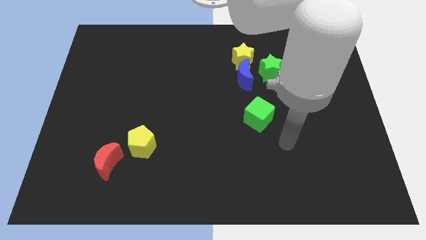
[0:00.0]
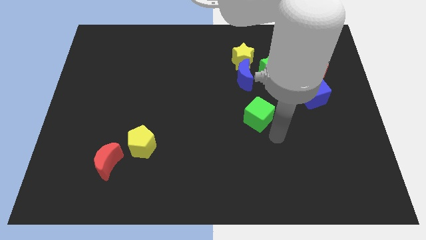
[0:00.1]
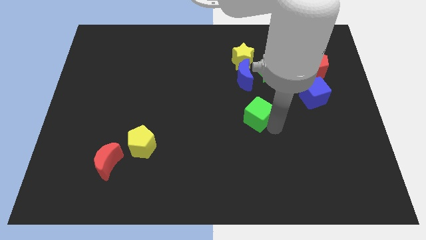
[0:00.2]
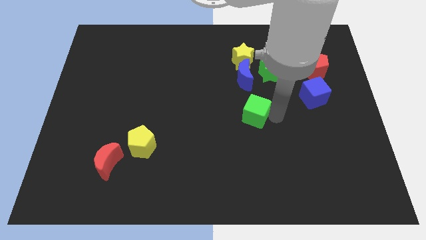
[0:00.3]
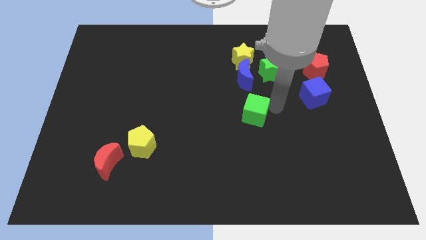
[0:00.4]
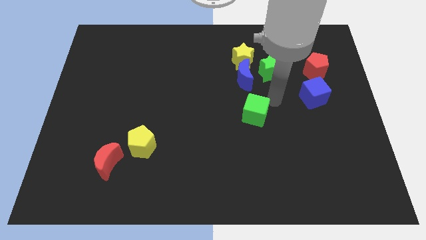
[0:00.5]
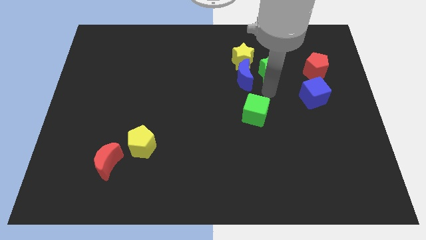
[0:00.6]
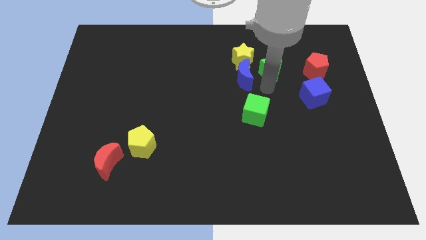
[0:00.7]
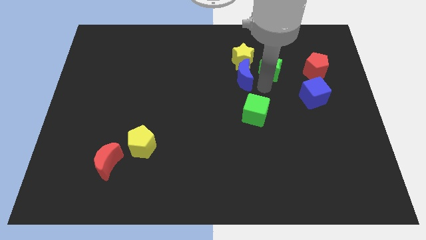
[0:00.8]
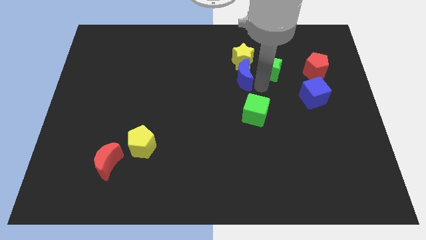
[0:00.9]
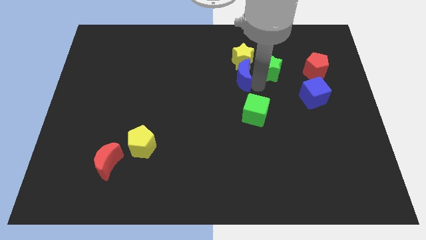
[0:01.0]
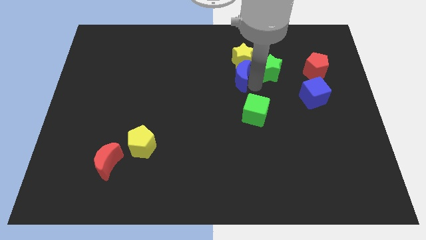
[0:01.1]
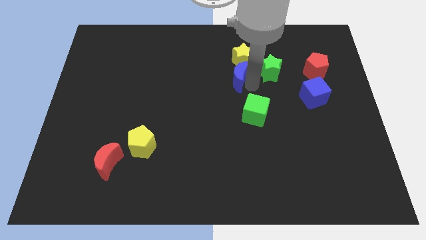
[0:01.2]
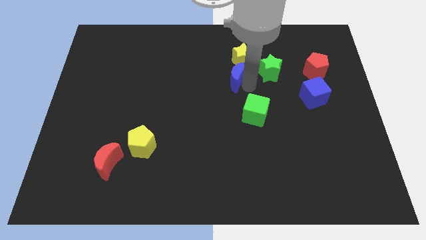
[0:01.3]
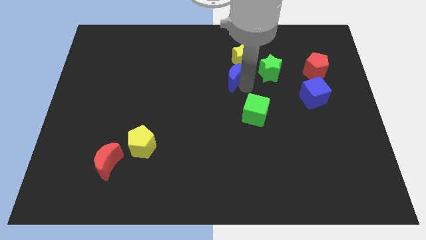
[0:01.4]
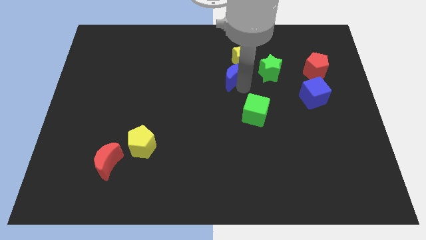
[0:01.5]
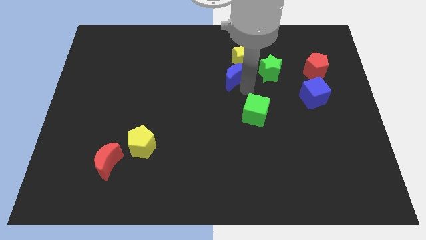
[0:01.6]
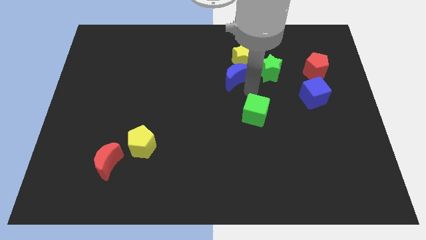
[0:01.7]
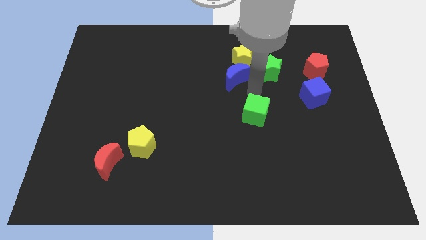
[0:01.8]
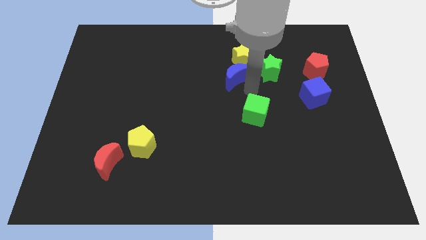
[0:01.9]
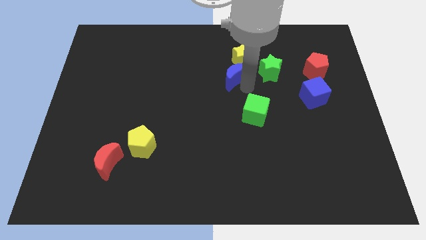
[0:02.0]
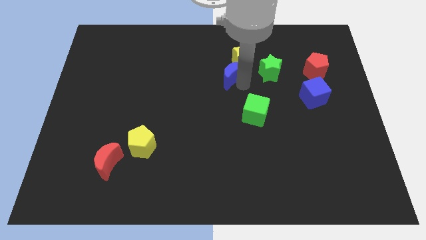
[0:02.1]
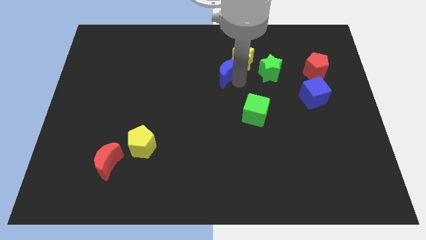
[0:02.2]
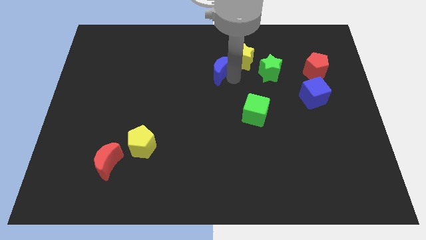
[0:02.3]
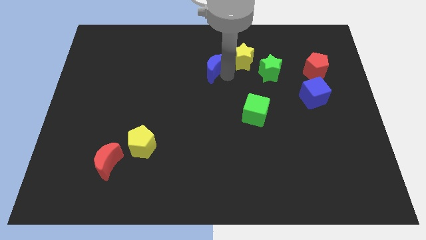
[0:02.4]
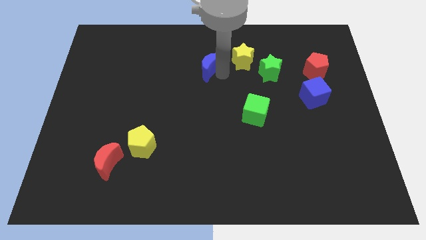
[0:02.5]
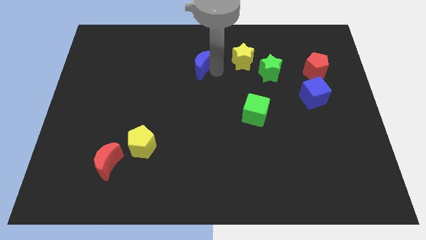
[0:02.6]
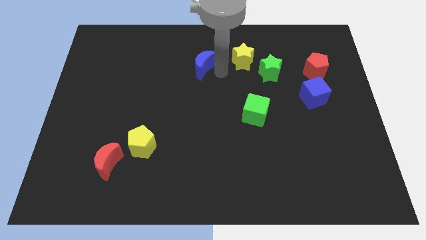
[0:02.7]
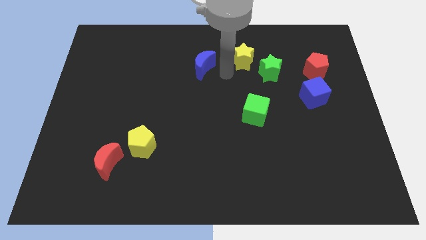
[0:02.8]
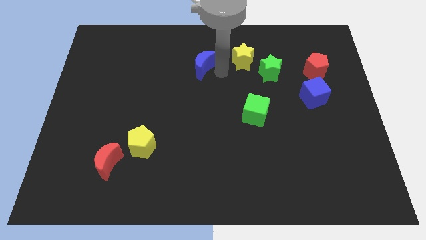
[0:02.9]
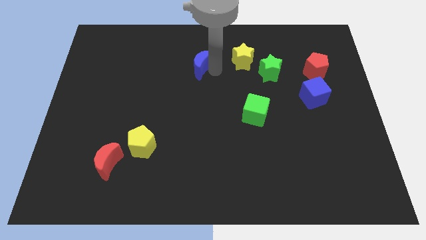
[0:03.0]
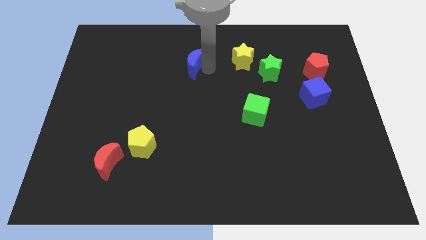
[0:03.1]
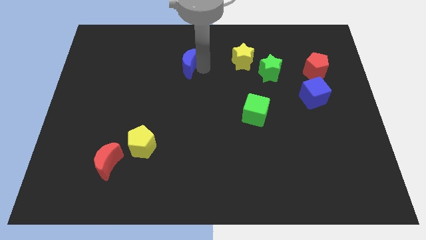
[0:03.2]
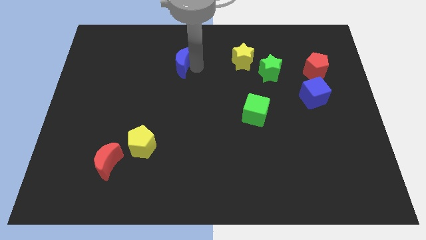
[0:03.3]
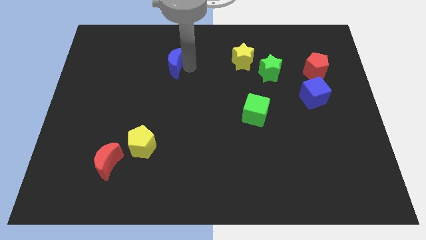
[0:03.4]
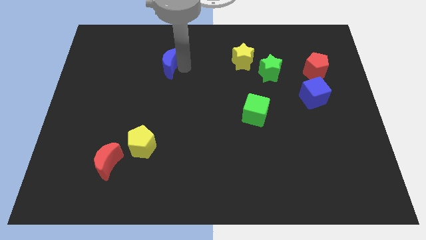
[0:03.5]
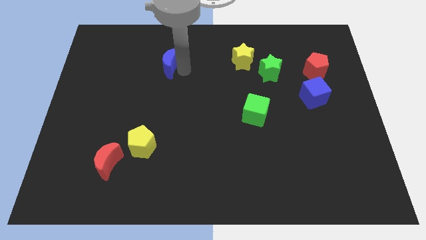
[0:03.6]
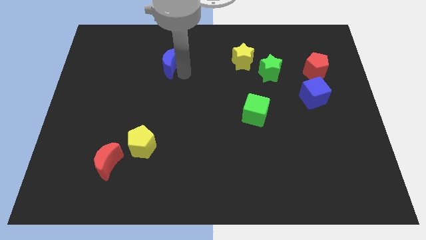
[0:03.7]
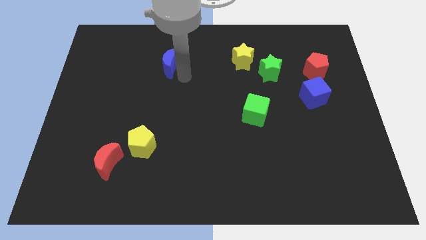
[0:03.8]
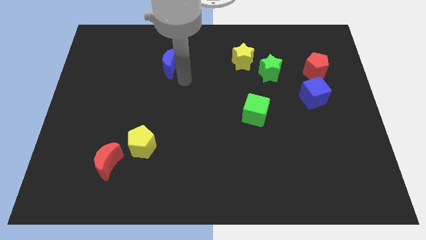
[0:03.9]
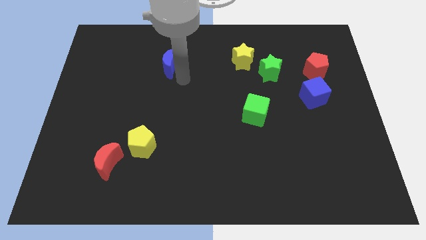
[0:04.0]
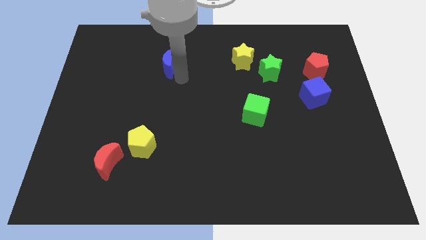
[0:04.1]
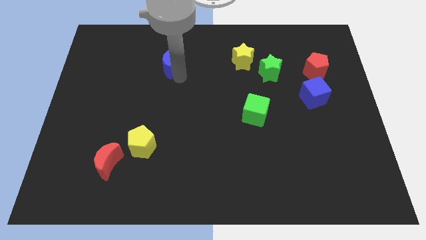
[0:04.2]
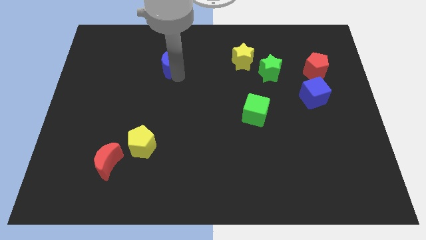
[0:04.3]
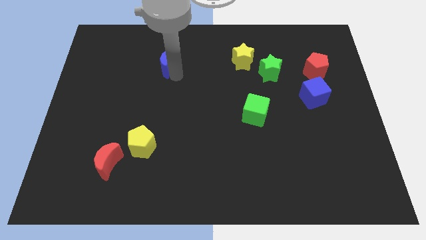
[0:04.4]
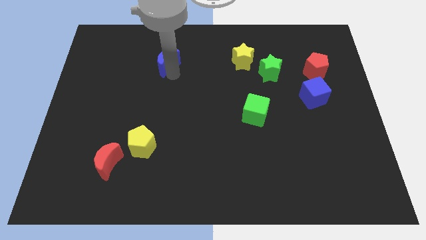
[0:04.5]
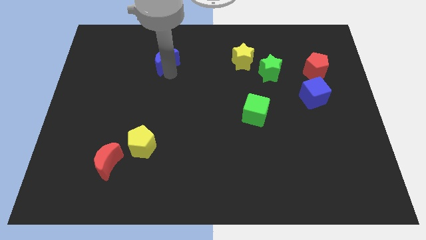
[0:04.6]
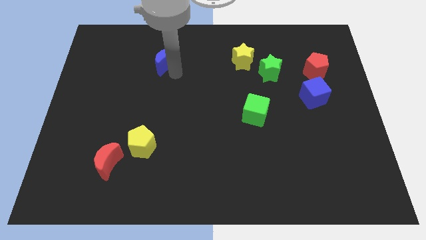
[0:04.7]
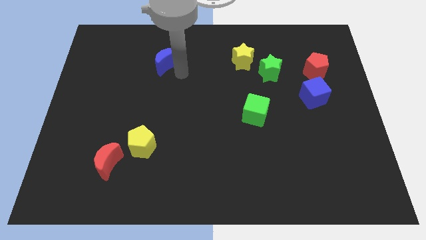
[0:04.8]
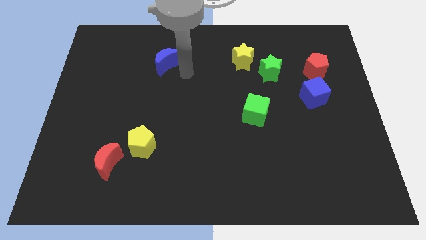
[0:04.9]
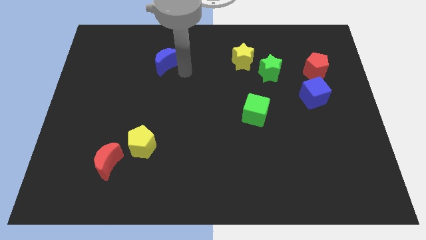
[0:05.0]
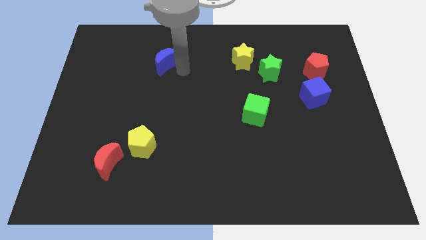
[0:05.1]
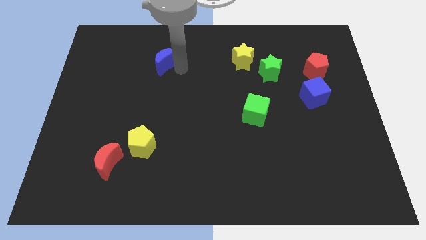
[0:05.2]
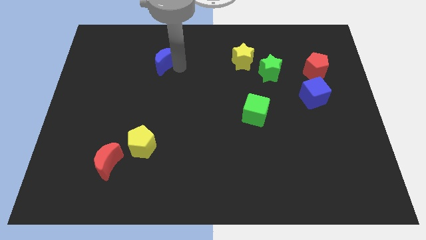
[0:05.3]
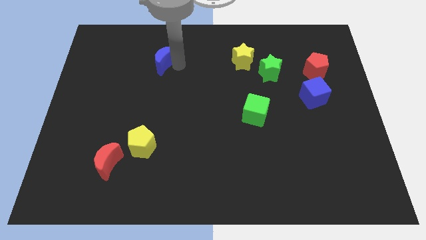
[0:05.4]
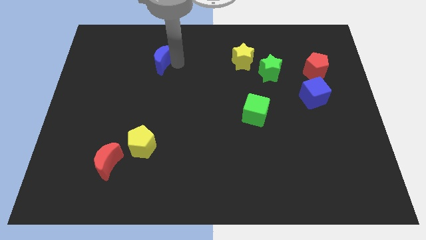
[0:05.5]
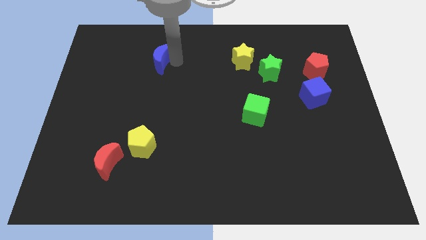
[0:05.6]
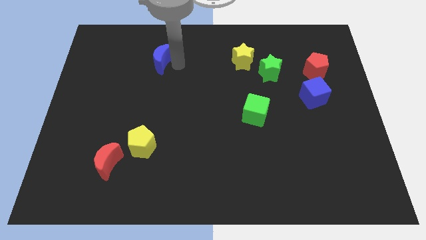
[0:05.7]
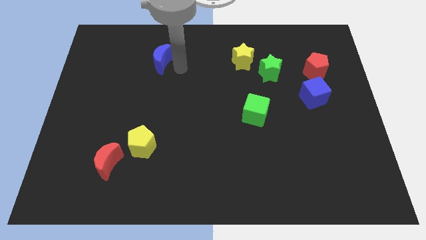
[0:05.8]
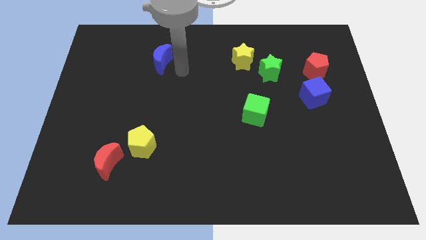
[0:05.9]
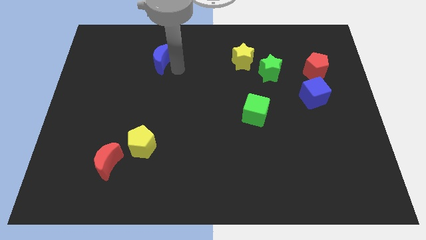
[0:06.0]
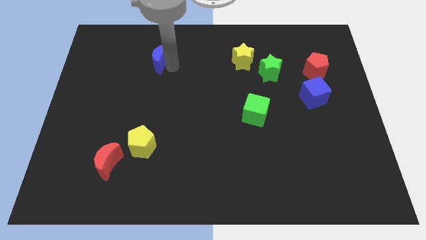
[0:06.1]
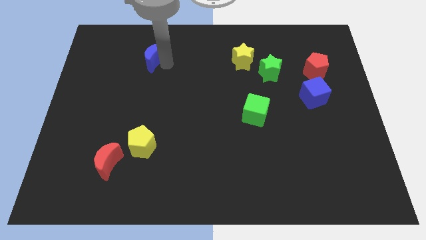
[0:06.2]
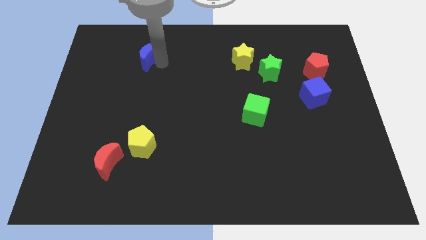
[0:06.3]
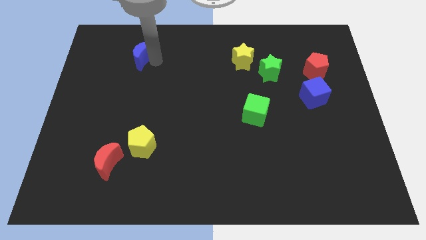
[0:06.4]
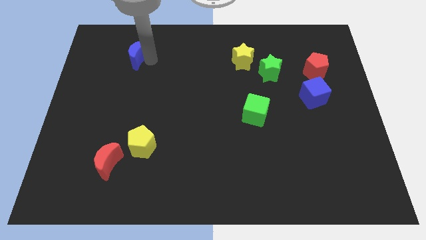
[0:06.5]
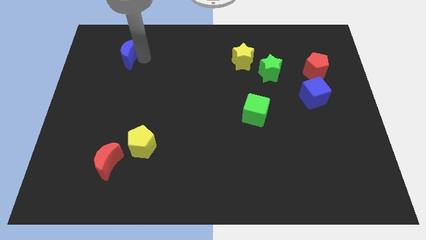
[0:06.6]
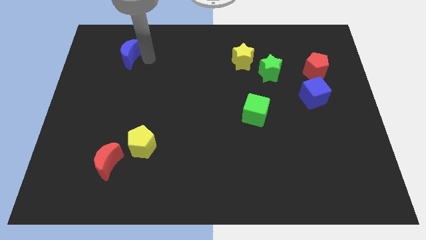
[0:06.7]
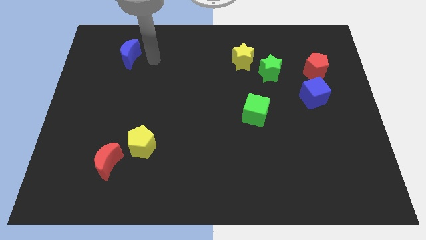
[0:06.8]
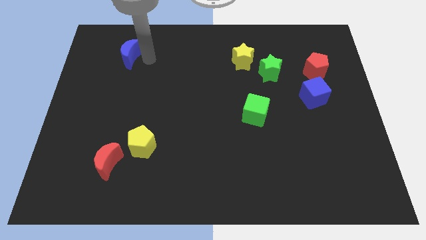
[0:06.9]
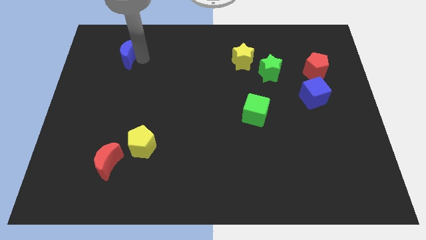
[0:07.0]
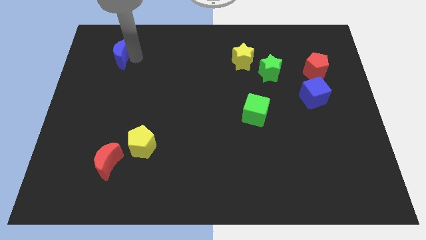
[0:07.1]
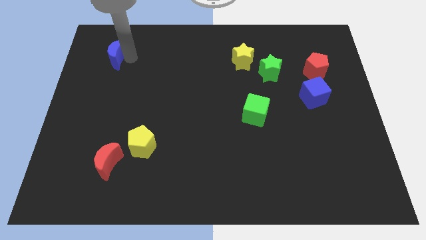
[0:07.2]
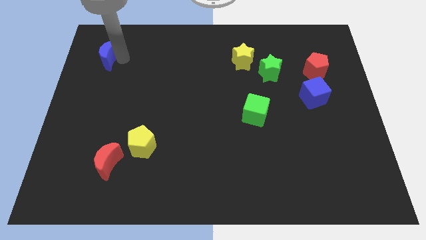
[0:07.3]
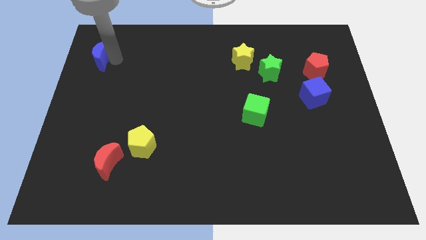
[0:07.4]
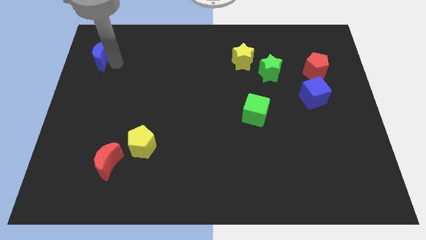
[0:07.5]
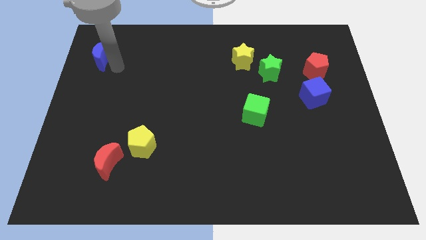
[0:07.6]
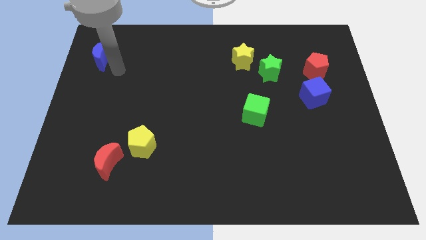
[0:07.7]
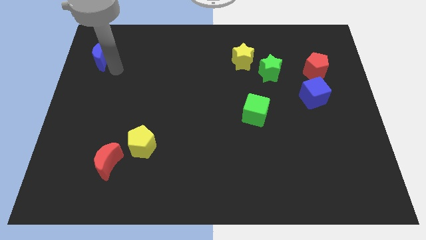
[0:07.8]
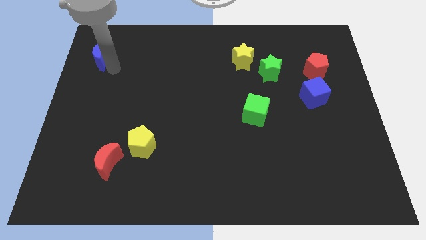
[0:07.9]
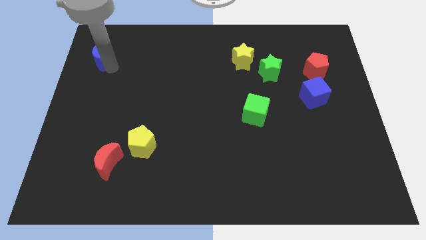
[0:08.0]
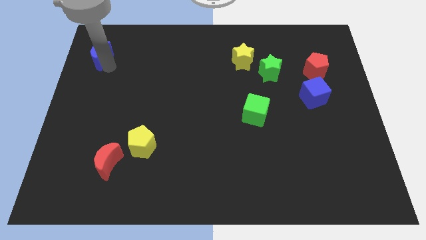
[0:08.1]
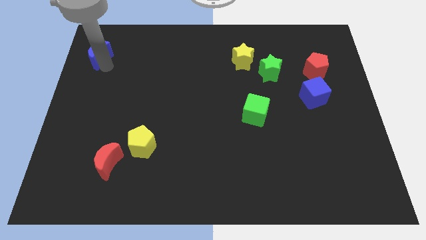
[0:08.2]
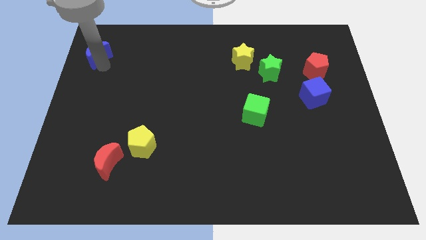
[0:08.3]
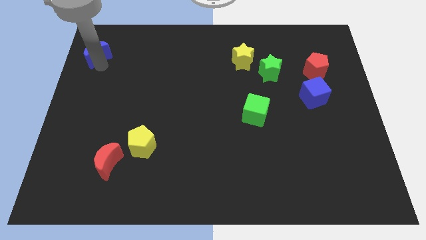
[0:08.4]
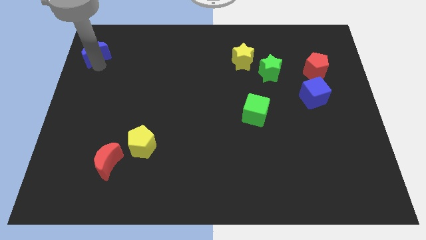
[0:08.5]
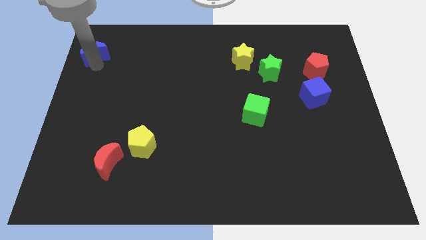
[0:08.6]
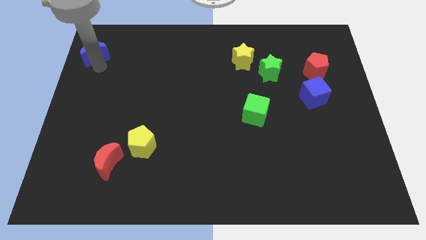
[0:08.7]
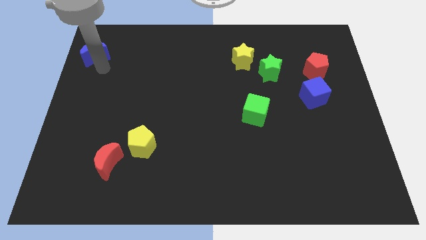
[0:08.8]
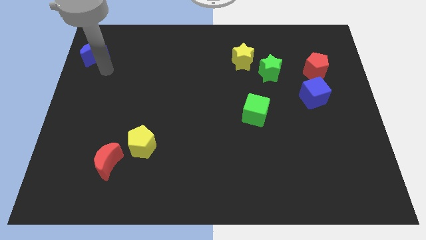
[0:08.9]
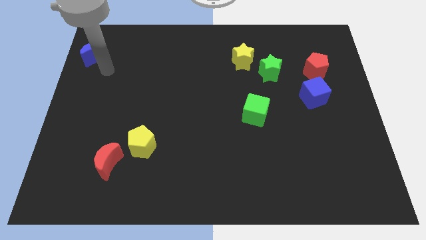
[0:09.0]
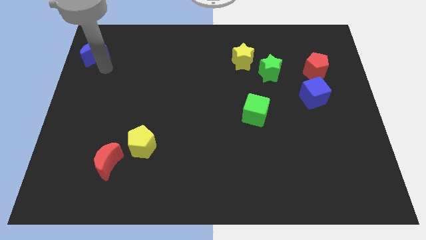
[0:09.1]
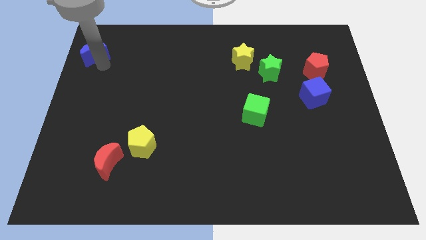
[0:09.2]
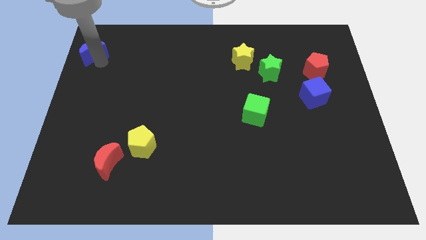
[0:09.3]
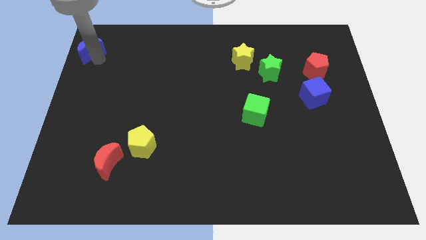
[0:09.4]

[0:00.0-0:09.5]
slide the blue moon to the top left
